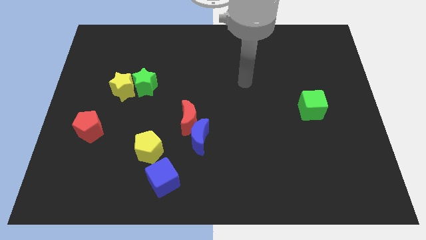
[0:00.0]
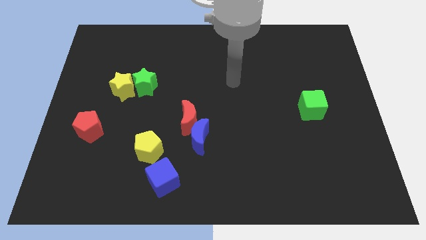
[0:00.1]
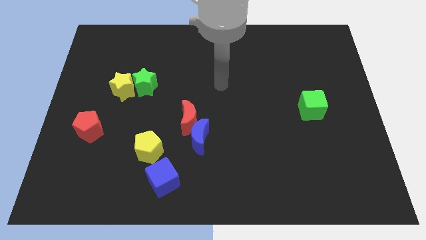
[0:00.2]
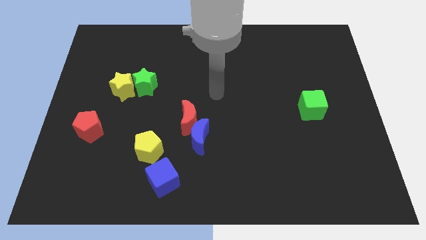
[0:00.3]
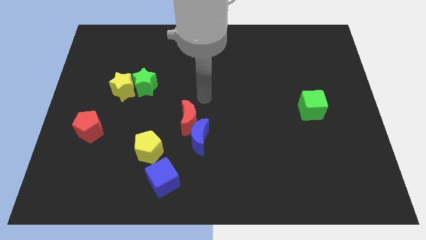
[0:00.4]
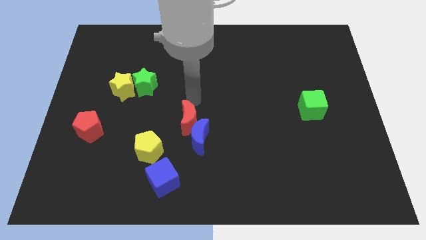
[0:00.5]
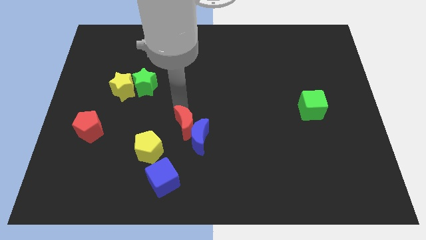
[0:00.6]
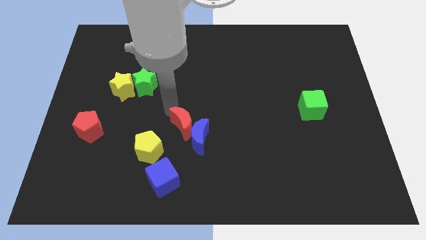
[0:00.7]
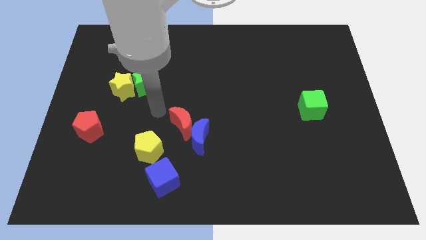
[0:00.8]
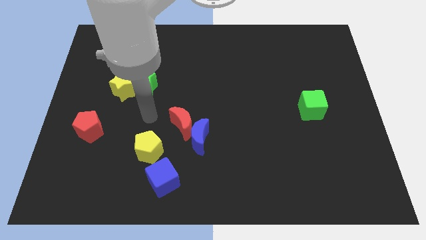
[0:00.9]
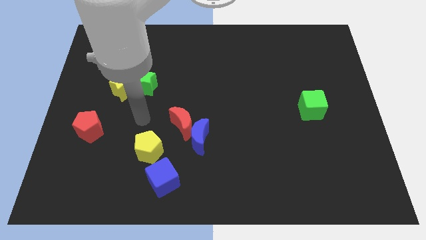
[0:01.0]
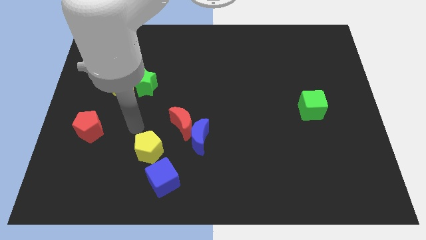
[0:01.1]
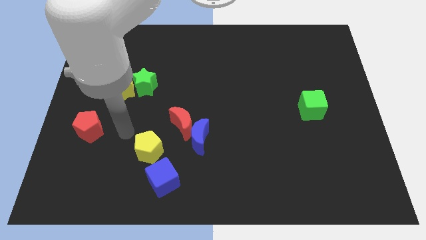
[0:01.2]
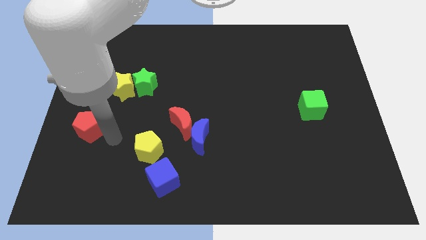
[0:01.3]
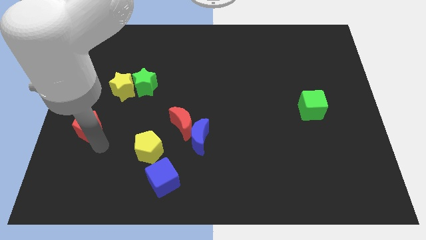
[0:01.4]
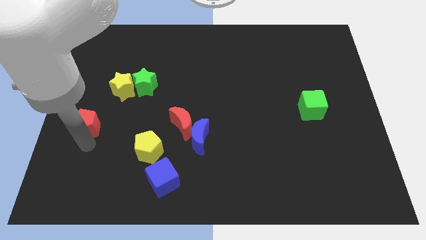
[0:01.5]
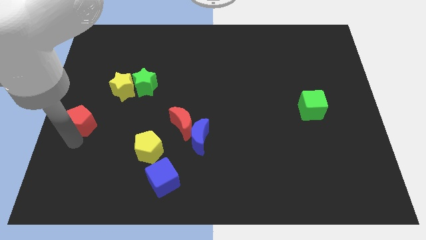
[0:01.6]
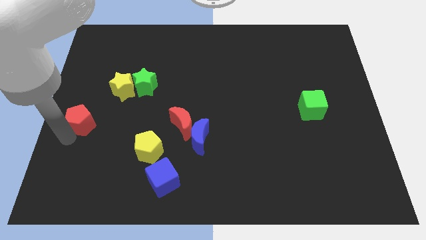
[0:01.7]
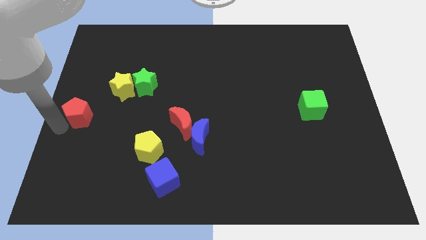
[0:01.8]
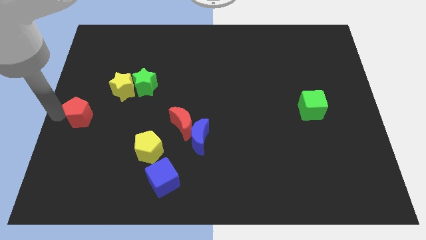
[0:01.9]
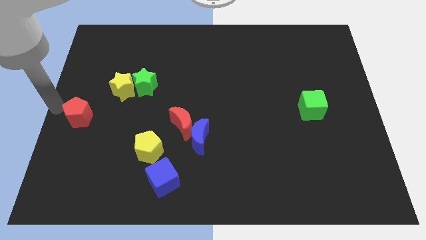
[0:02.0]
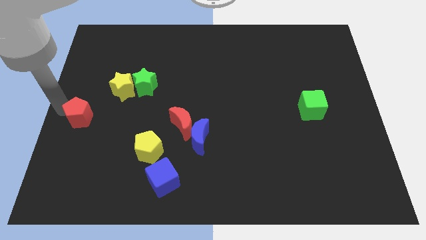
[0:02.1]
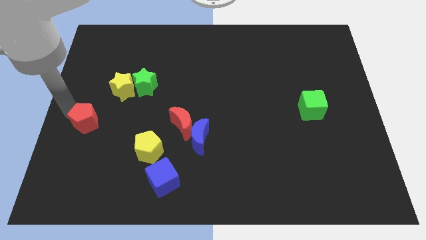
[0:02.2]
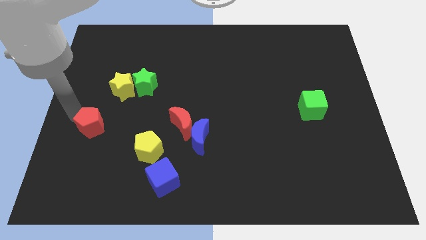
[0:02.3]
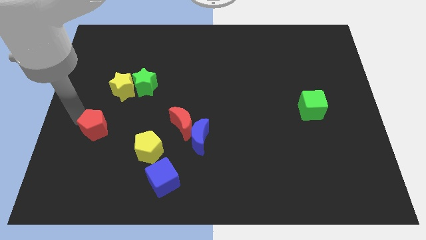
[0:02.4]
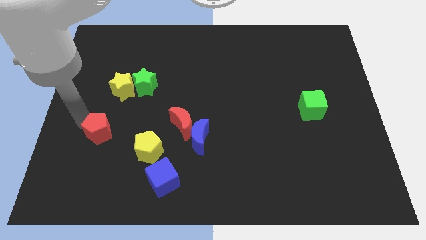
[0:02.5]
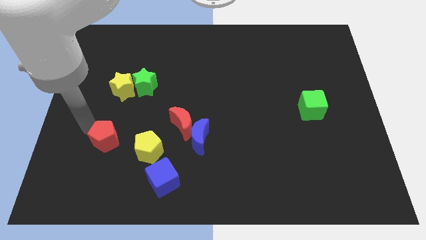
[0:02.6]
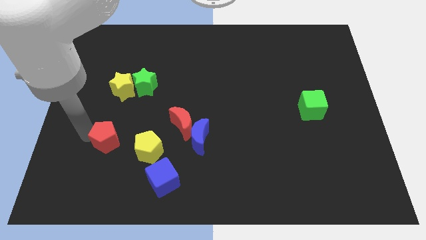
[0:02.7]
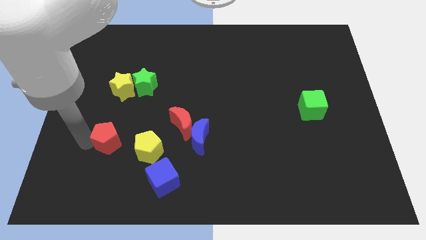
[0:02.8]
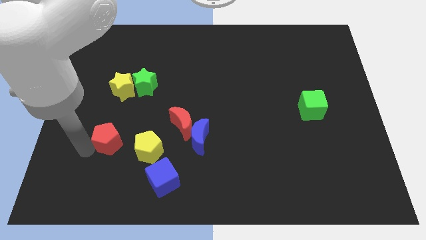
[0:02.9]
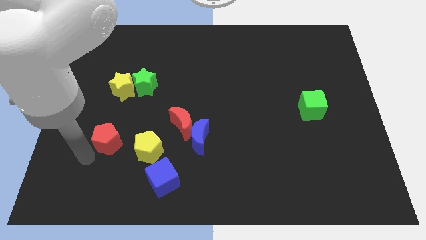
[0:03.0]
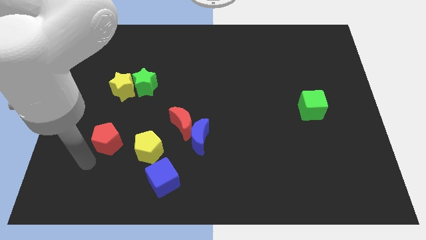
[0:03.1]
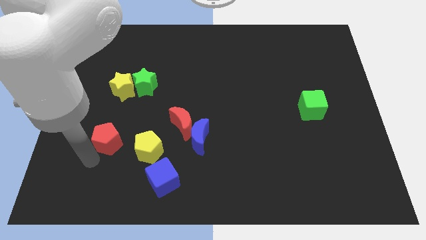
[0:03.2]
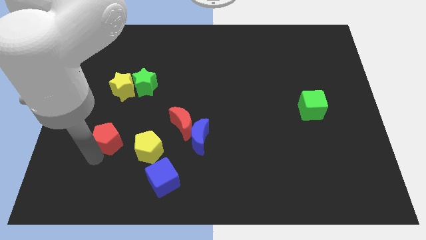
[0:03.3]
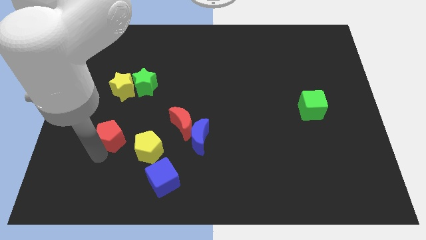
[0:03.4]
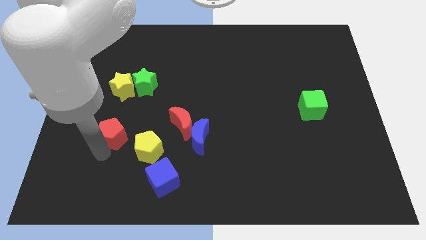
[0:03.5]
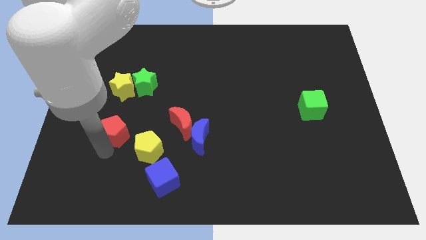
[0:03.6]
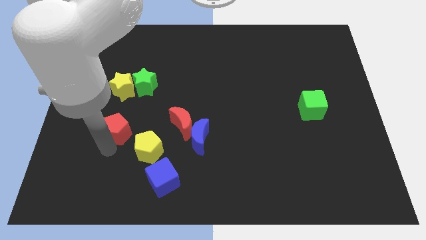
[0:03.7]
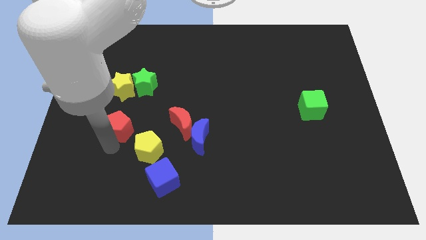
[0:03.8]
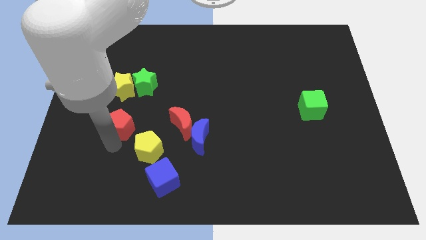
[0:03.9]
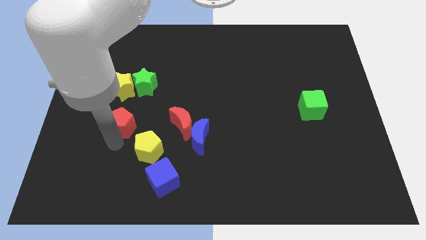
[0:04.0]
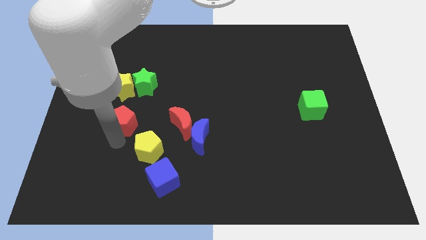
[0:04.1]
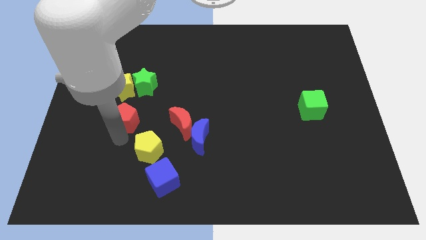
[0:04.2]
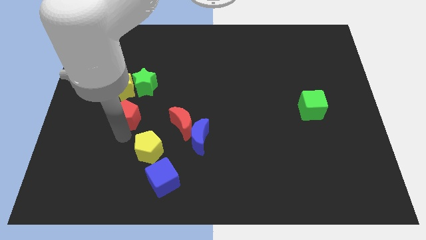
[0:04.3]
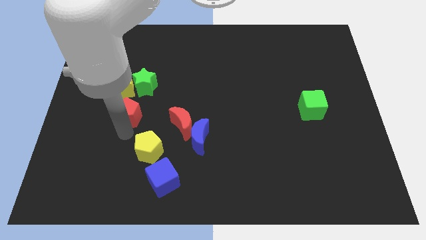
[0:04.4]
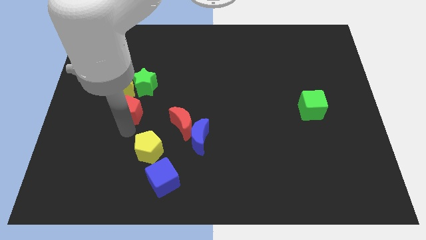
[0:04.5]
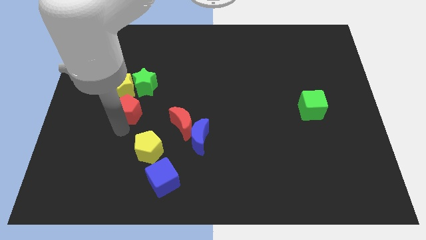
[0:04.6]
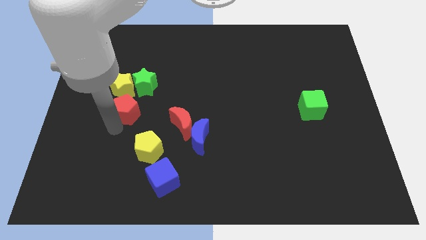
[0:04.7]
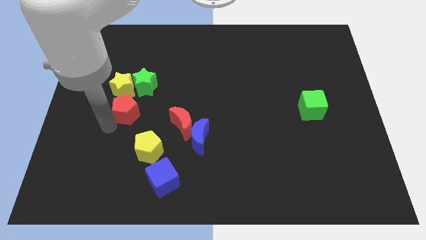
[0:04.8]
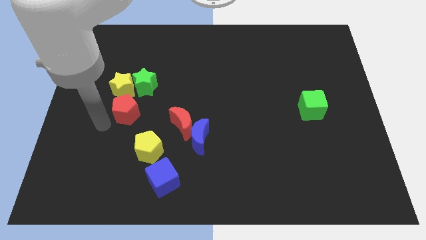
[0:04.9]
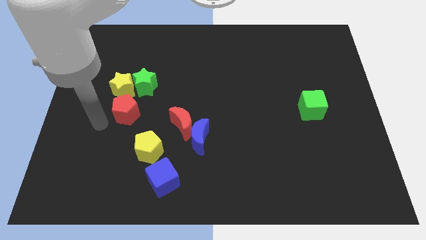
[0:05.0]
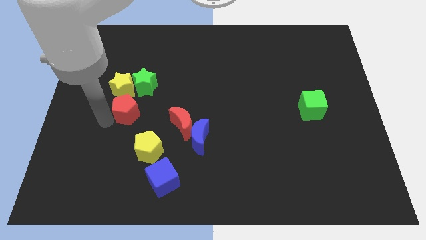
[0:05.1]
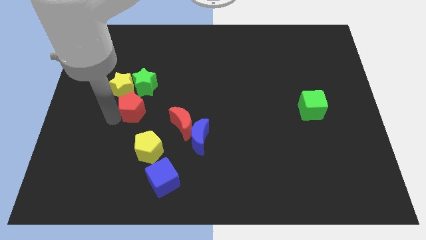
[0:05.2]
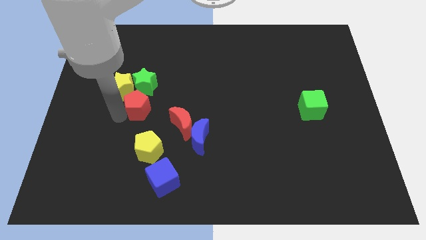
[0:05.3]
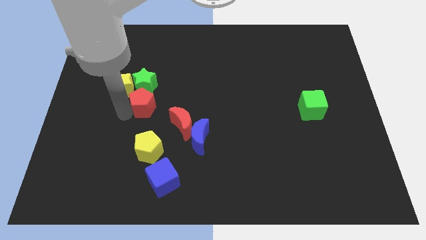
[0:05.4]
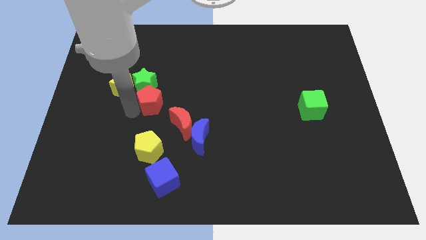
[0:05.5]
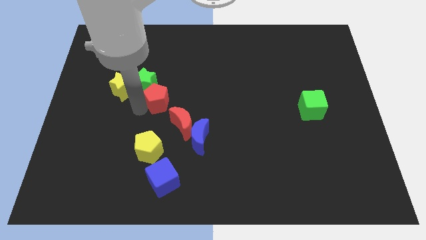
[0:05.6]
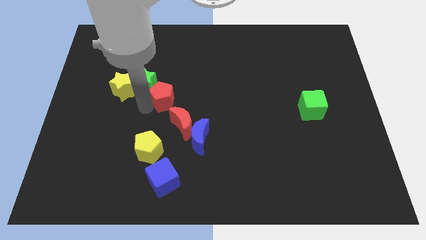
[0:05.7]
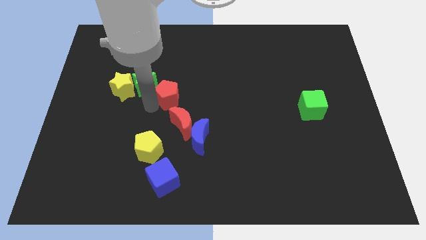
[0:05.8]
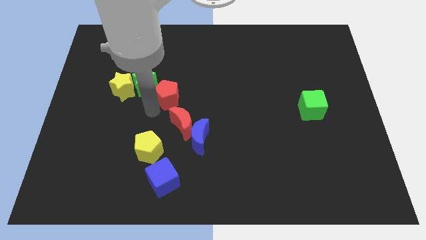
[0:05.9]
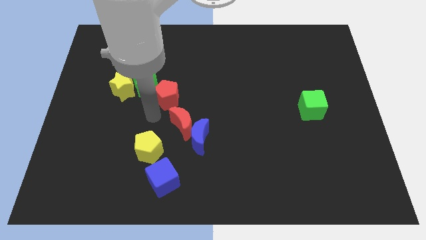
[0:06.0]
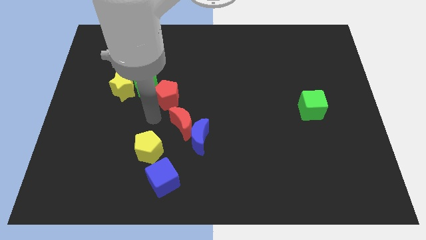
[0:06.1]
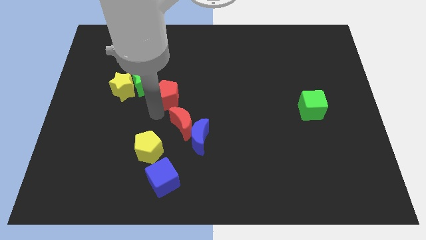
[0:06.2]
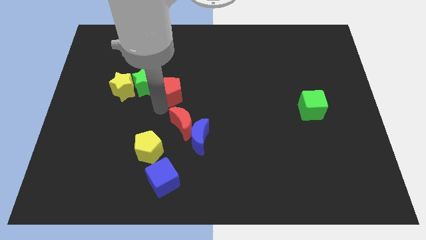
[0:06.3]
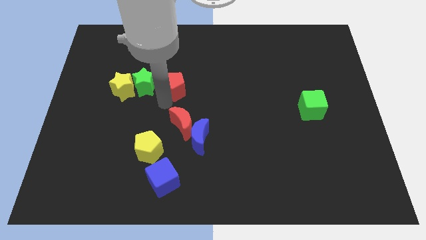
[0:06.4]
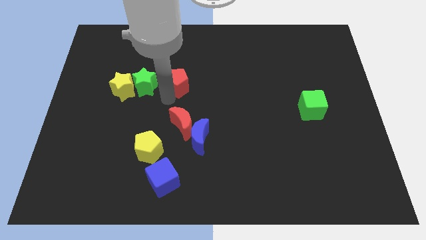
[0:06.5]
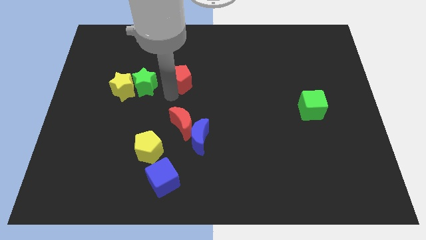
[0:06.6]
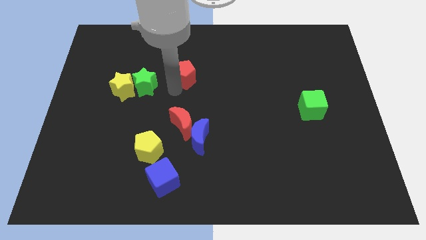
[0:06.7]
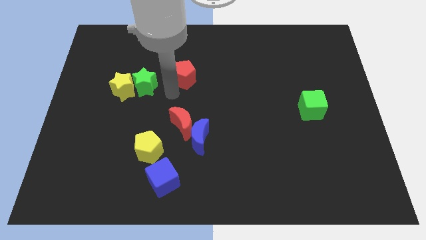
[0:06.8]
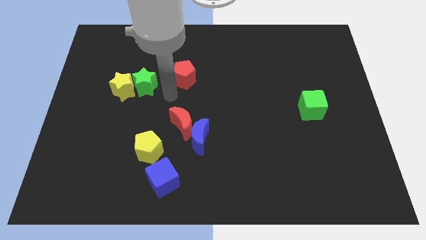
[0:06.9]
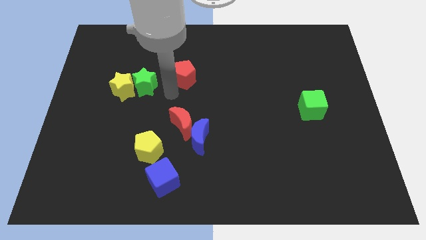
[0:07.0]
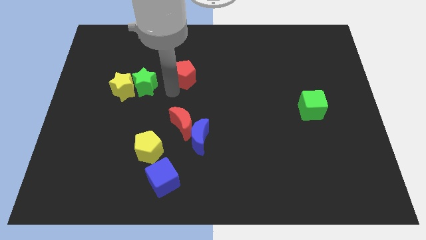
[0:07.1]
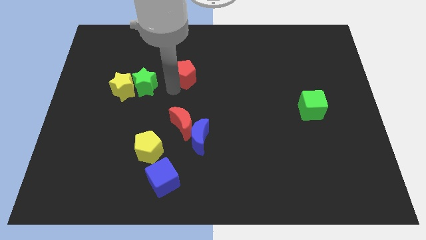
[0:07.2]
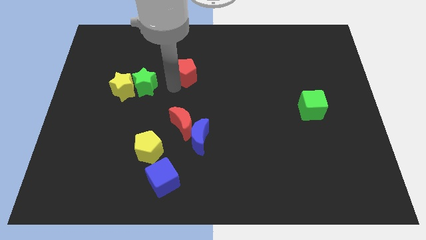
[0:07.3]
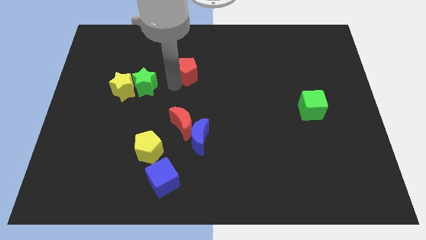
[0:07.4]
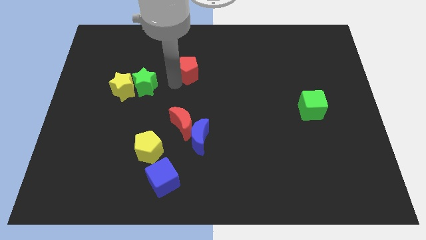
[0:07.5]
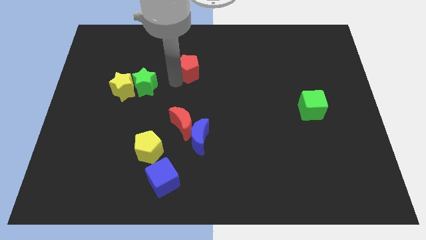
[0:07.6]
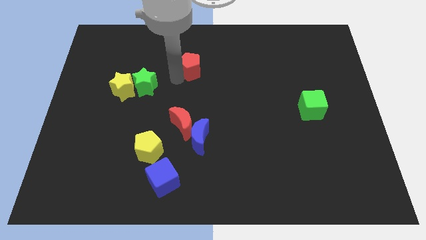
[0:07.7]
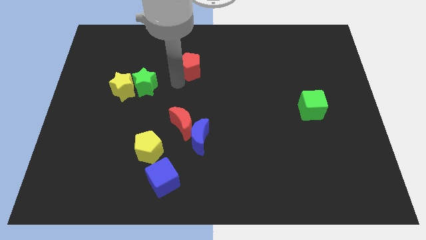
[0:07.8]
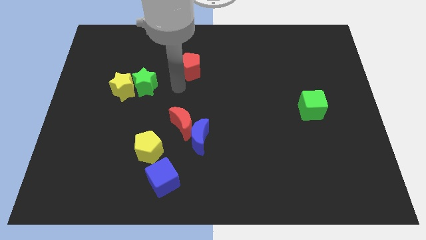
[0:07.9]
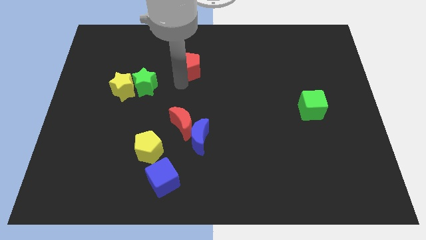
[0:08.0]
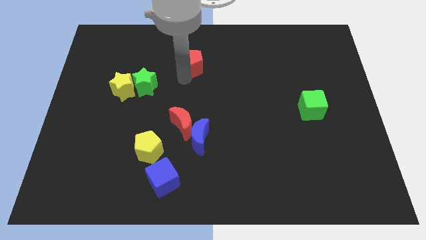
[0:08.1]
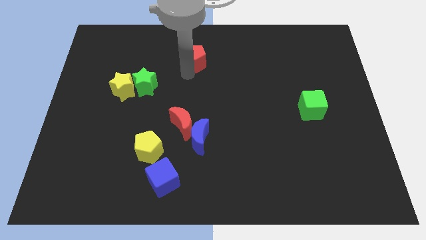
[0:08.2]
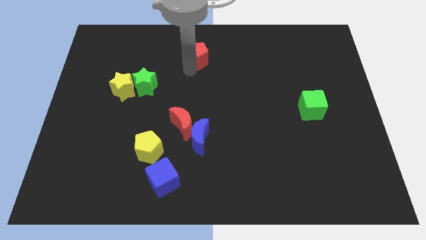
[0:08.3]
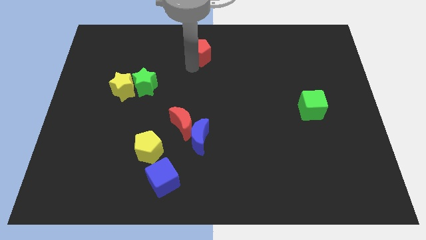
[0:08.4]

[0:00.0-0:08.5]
push the red pentagon to the top side
